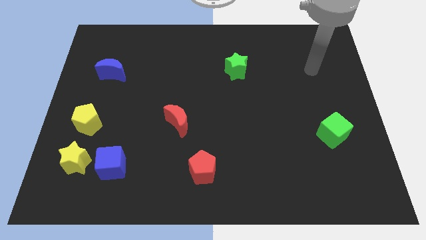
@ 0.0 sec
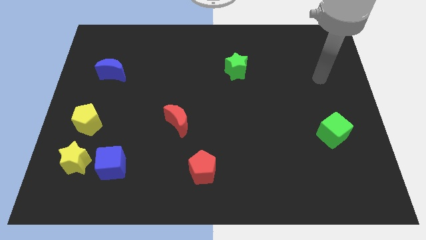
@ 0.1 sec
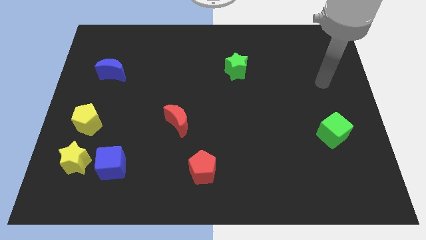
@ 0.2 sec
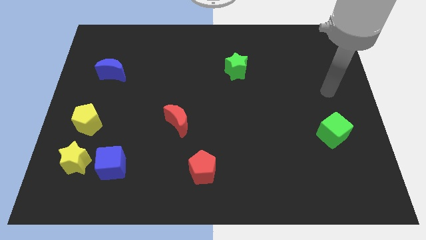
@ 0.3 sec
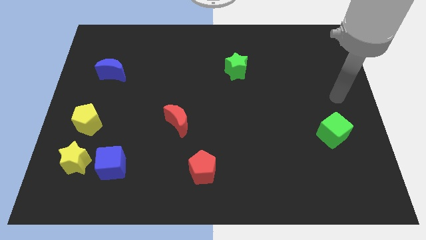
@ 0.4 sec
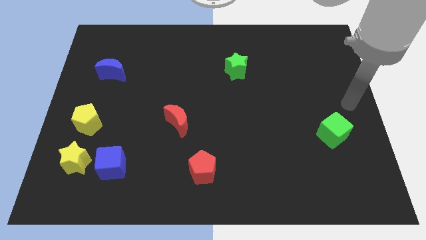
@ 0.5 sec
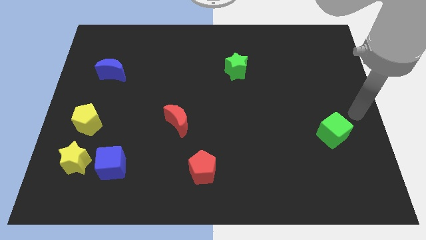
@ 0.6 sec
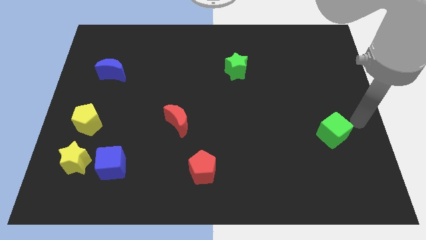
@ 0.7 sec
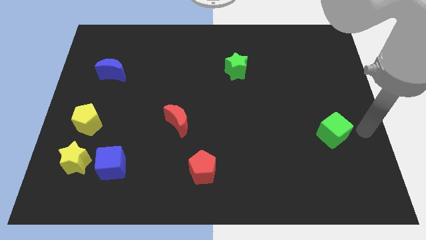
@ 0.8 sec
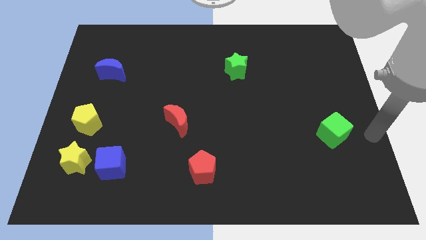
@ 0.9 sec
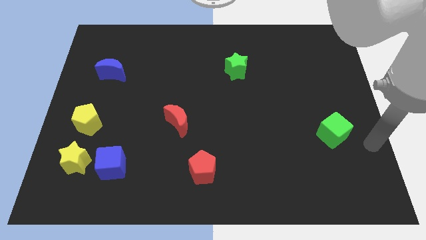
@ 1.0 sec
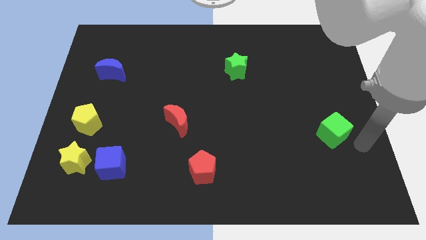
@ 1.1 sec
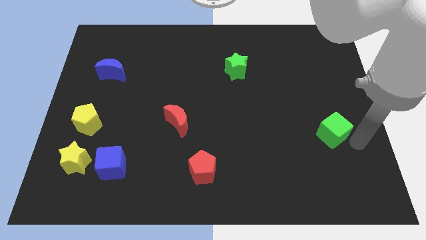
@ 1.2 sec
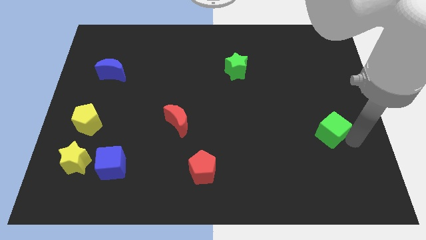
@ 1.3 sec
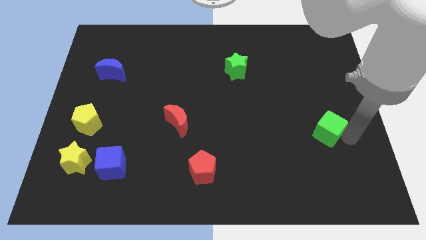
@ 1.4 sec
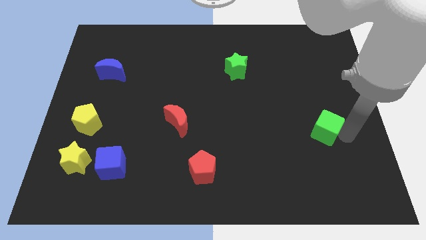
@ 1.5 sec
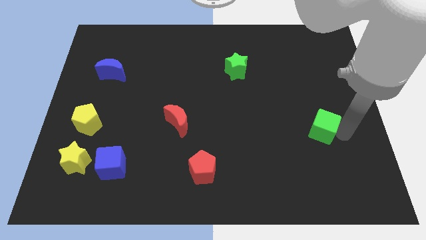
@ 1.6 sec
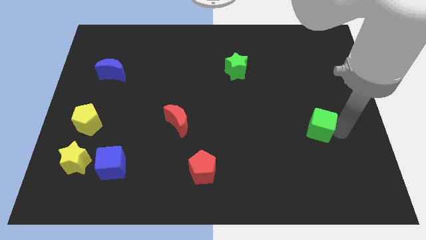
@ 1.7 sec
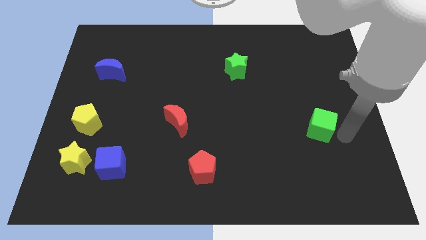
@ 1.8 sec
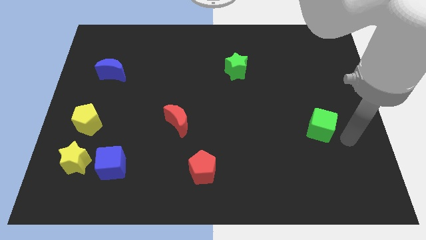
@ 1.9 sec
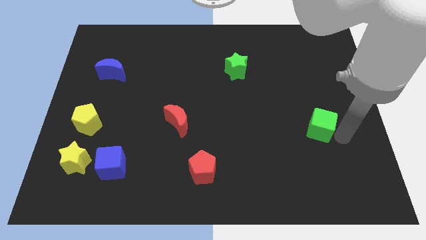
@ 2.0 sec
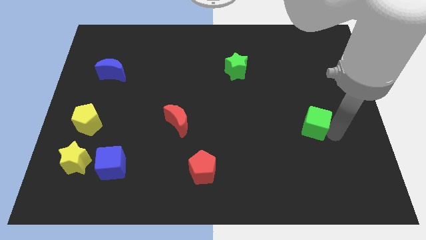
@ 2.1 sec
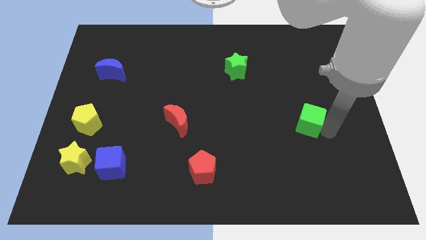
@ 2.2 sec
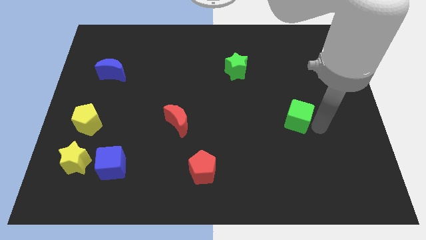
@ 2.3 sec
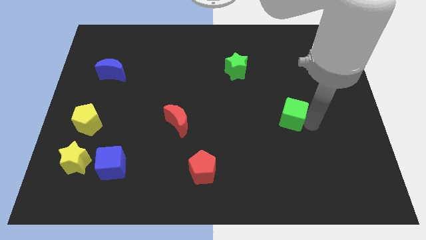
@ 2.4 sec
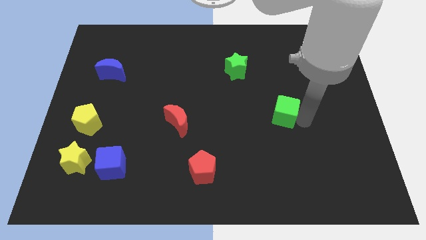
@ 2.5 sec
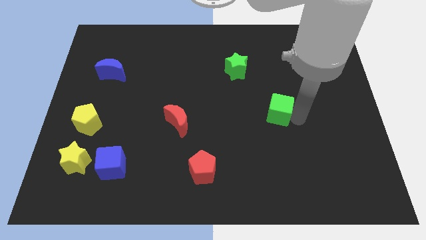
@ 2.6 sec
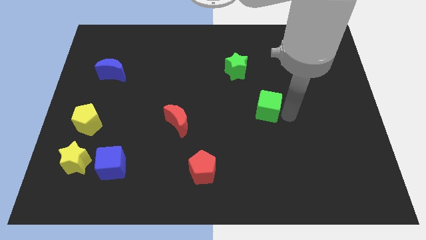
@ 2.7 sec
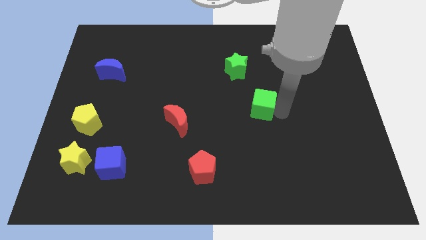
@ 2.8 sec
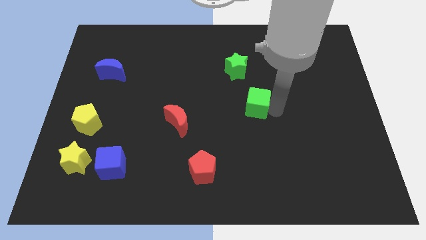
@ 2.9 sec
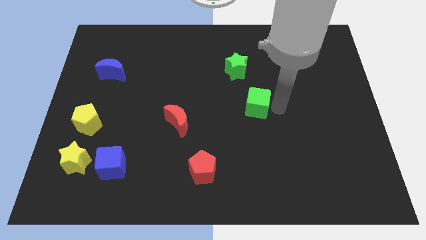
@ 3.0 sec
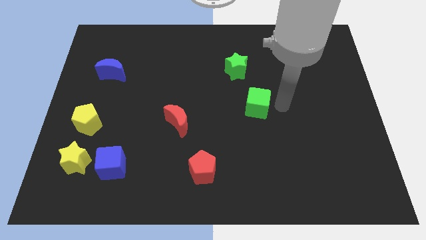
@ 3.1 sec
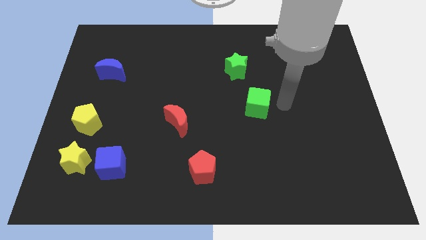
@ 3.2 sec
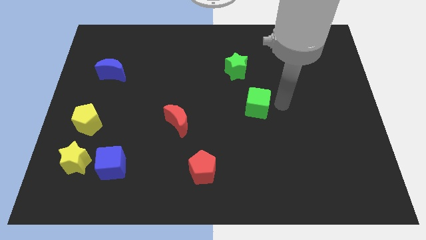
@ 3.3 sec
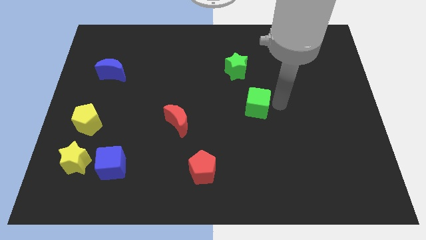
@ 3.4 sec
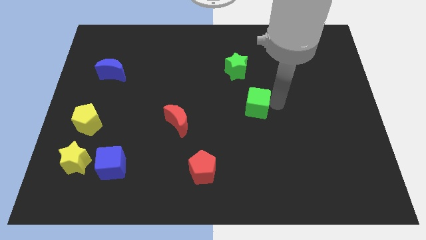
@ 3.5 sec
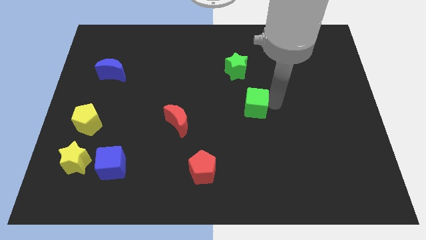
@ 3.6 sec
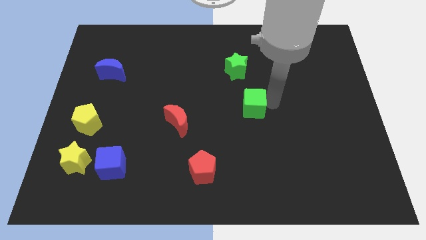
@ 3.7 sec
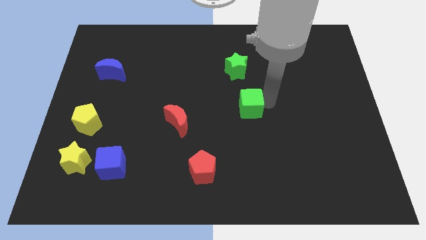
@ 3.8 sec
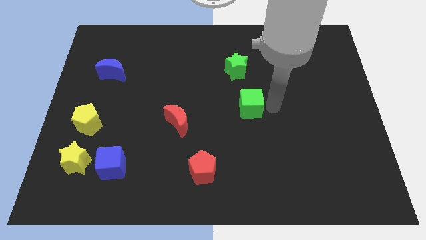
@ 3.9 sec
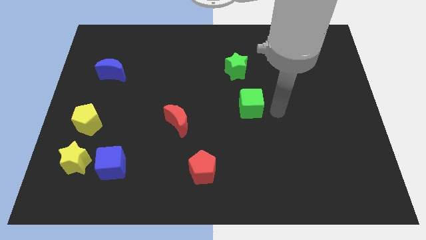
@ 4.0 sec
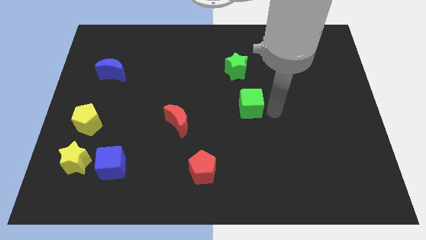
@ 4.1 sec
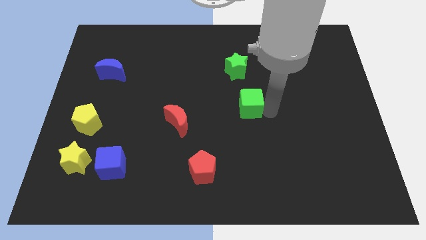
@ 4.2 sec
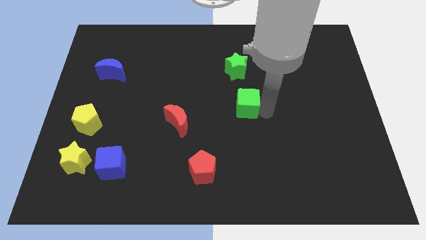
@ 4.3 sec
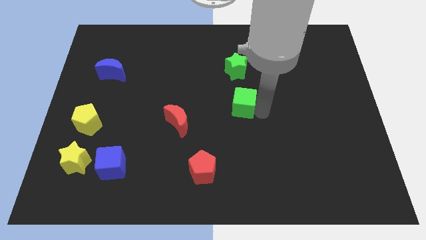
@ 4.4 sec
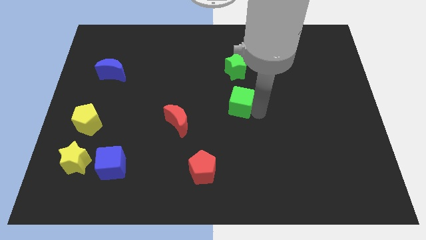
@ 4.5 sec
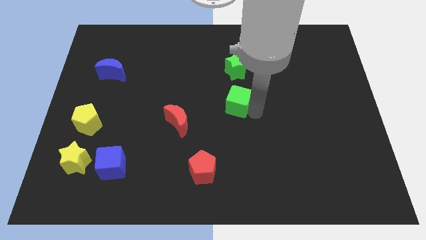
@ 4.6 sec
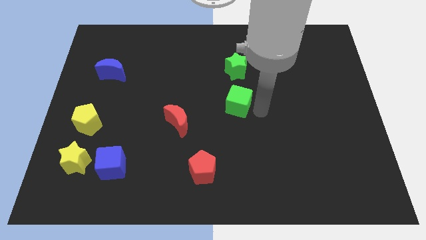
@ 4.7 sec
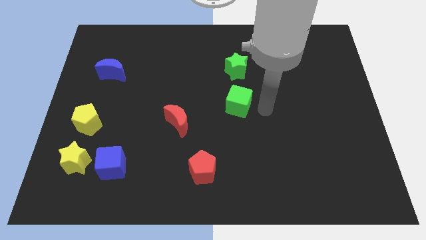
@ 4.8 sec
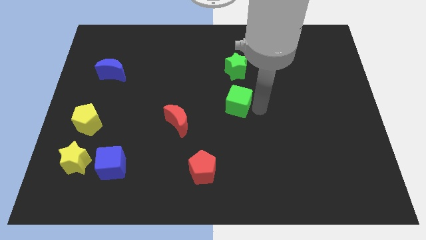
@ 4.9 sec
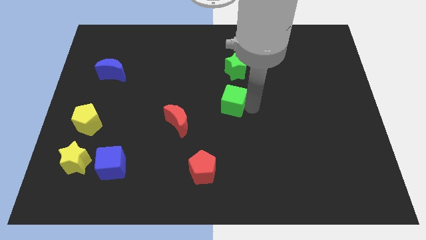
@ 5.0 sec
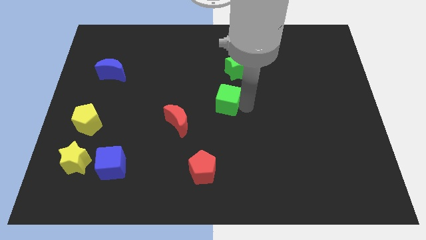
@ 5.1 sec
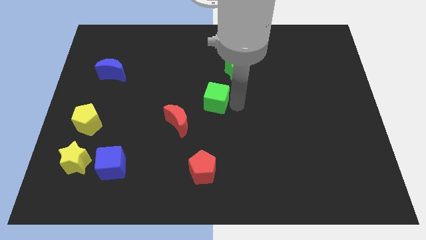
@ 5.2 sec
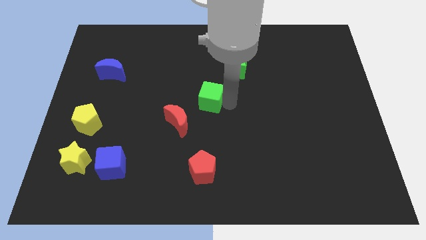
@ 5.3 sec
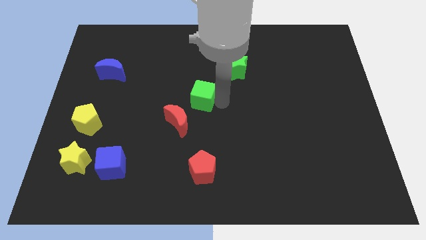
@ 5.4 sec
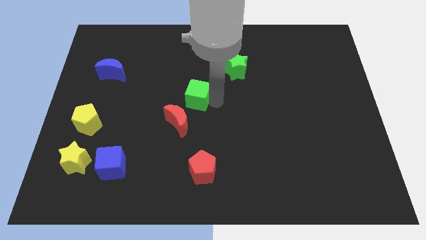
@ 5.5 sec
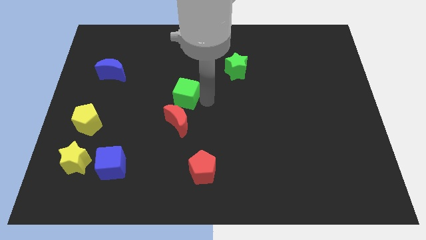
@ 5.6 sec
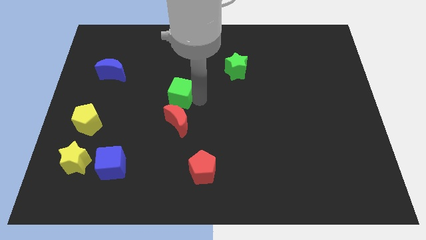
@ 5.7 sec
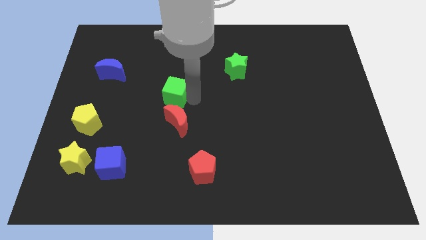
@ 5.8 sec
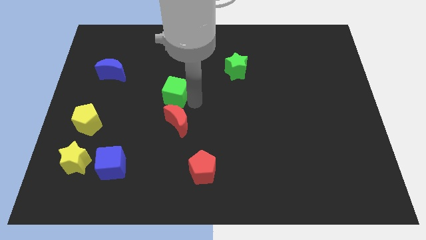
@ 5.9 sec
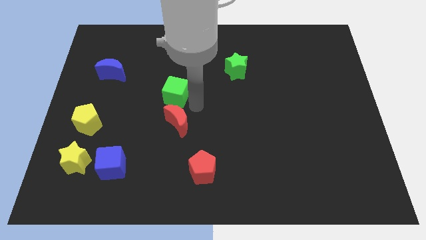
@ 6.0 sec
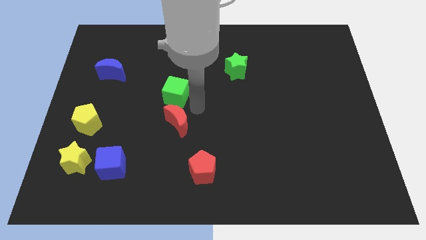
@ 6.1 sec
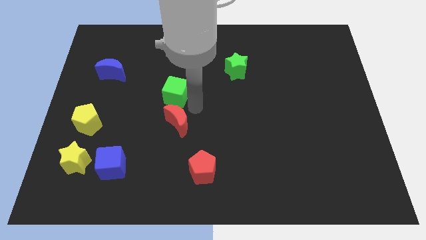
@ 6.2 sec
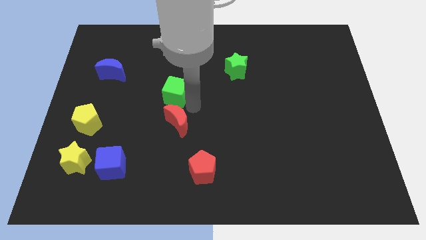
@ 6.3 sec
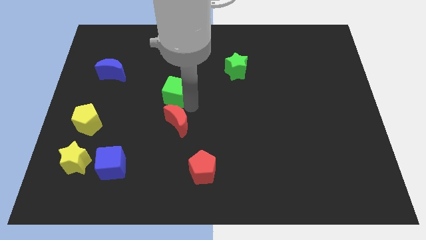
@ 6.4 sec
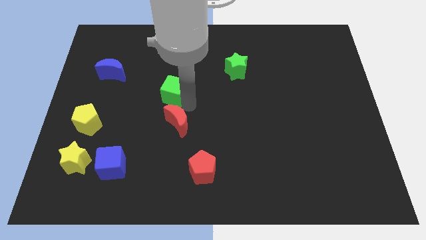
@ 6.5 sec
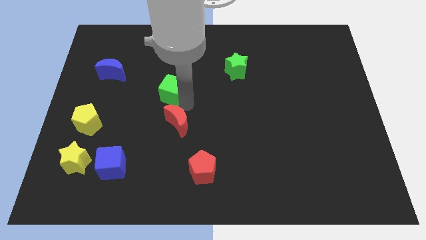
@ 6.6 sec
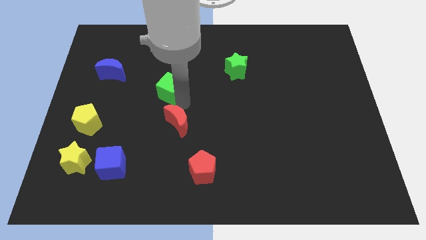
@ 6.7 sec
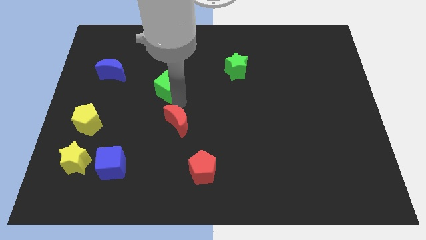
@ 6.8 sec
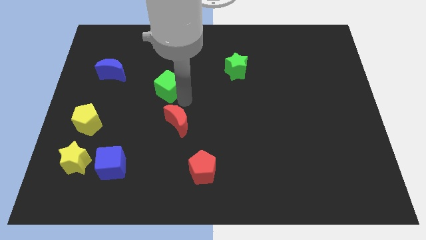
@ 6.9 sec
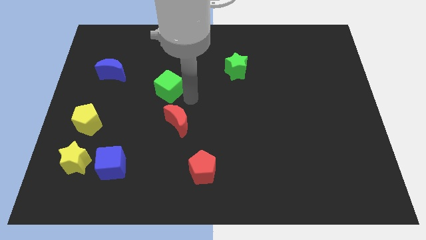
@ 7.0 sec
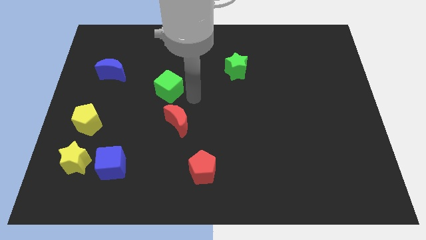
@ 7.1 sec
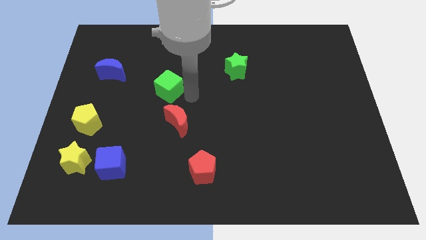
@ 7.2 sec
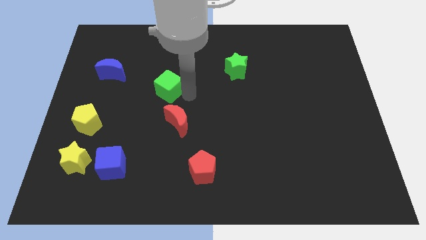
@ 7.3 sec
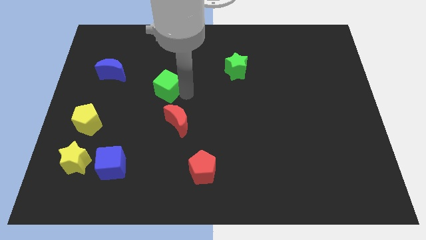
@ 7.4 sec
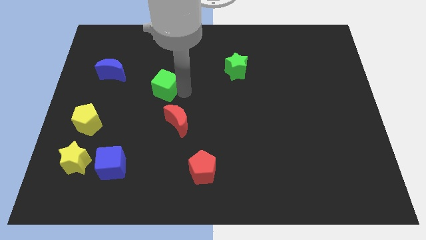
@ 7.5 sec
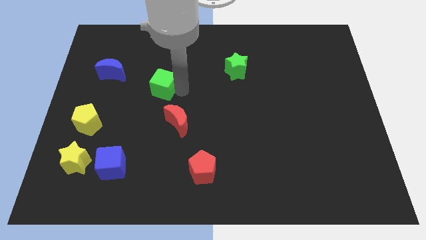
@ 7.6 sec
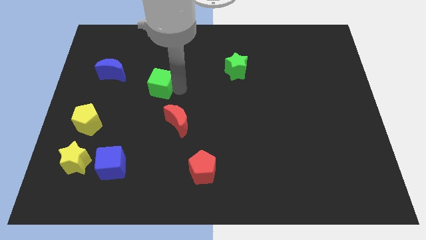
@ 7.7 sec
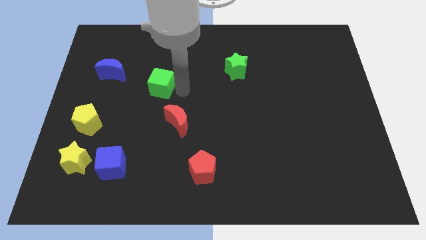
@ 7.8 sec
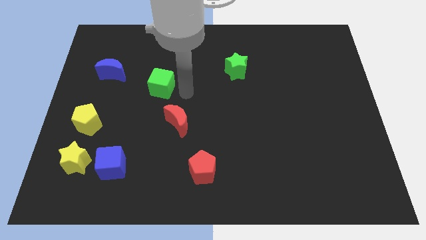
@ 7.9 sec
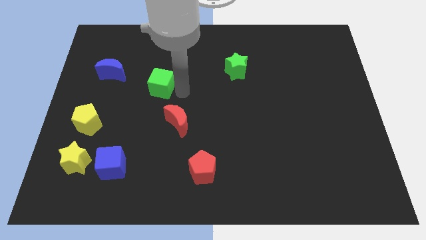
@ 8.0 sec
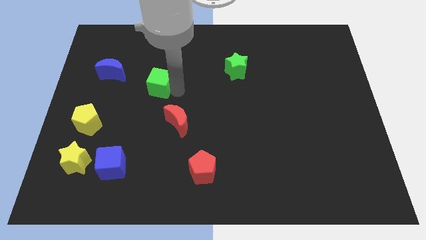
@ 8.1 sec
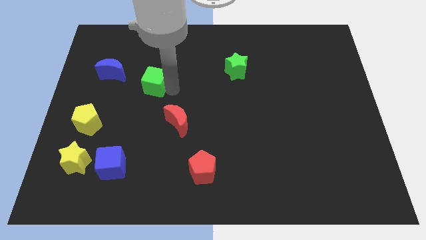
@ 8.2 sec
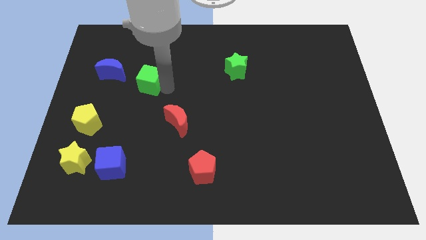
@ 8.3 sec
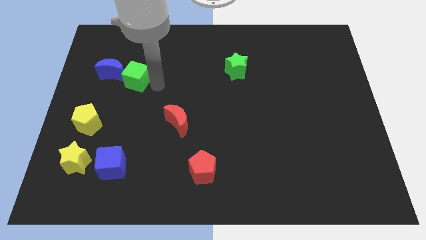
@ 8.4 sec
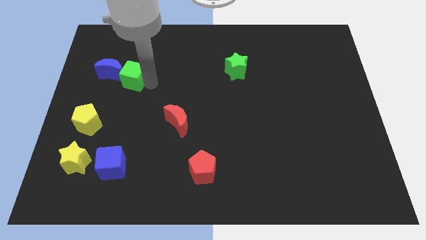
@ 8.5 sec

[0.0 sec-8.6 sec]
put the green cube to the blue moon
